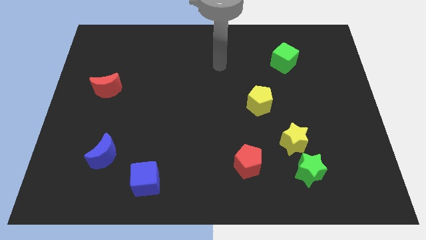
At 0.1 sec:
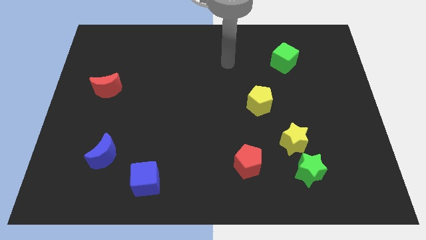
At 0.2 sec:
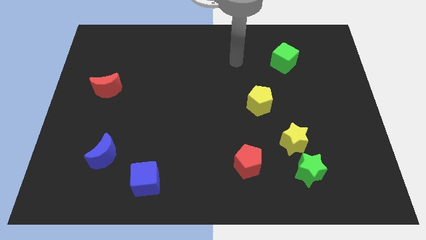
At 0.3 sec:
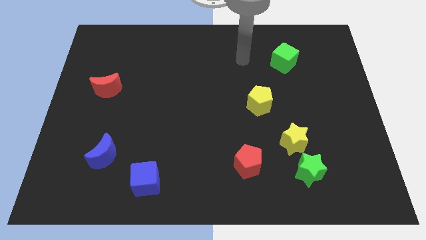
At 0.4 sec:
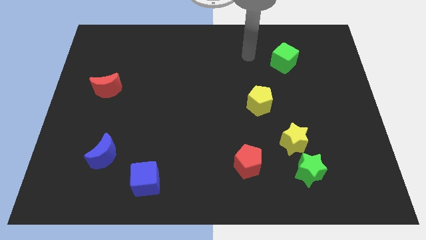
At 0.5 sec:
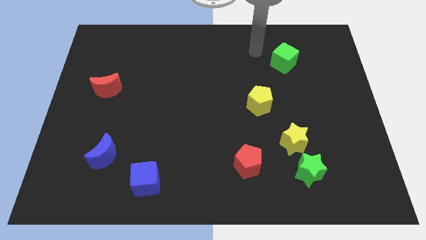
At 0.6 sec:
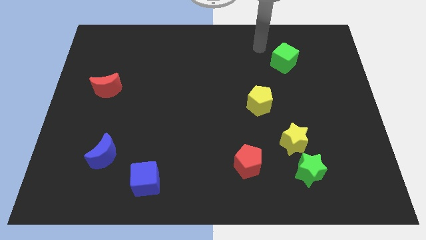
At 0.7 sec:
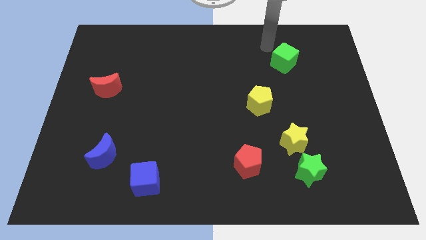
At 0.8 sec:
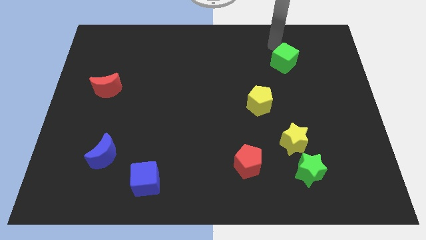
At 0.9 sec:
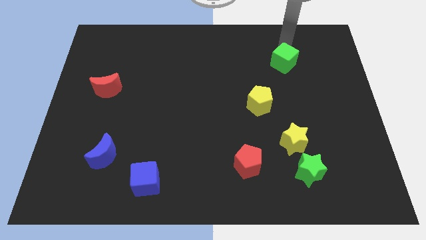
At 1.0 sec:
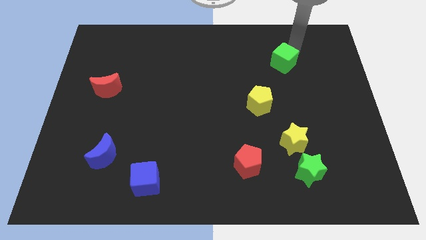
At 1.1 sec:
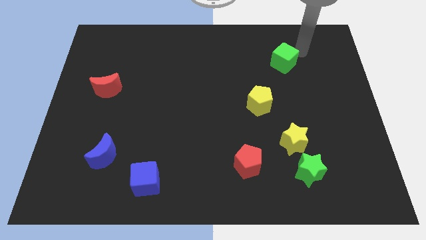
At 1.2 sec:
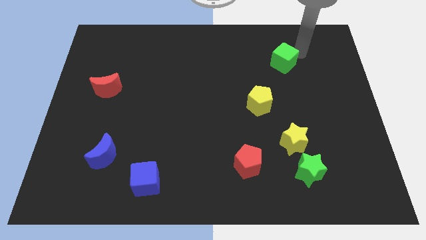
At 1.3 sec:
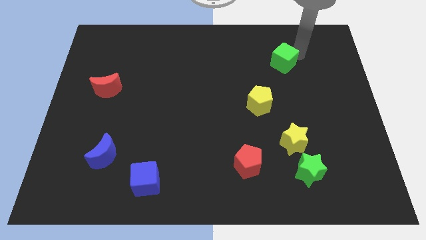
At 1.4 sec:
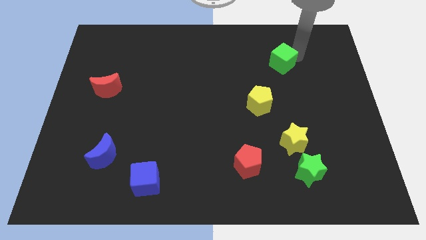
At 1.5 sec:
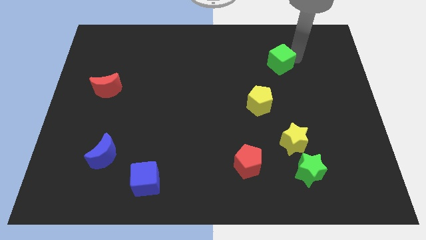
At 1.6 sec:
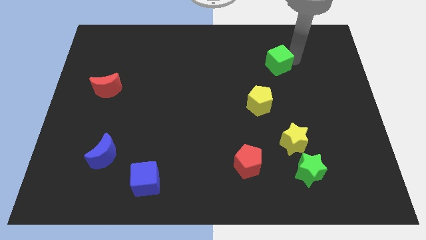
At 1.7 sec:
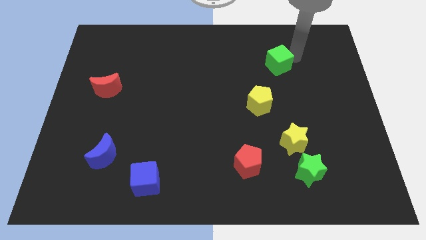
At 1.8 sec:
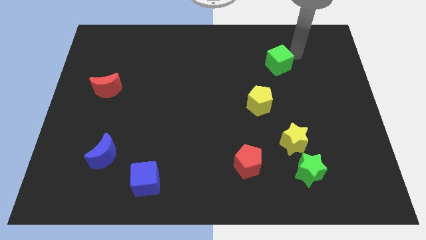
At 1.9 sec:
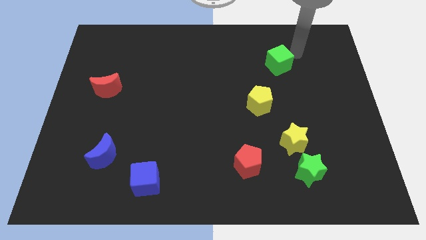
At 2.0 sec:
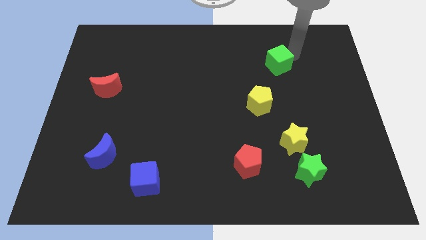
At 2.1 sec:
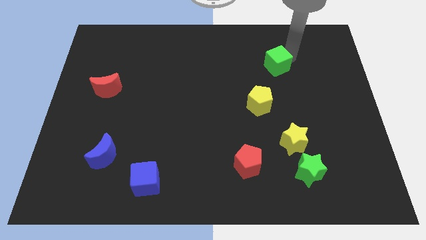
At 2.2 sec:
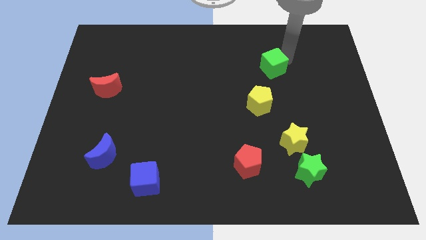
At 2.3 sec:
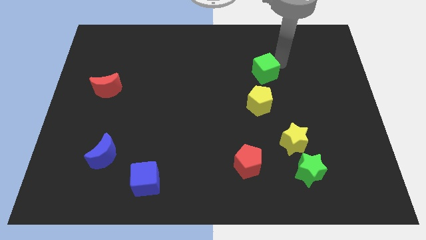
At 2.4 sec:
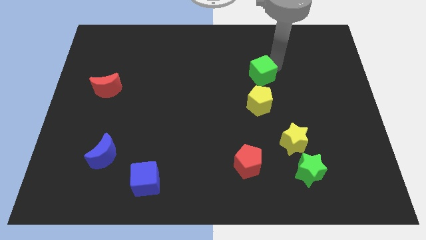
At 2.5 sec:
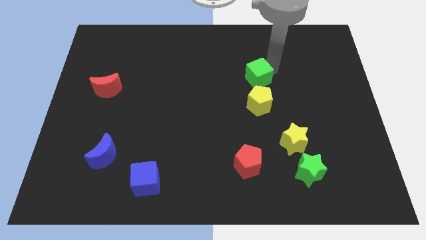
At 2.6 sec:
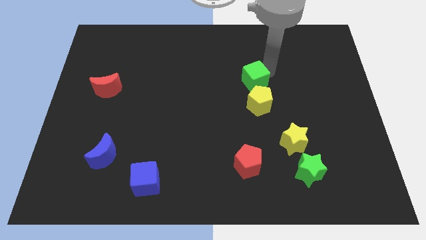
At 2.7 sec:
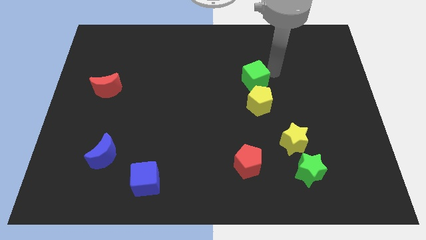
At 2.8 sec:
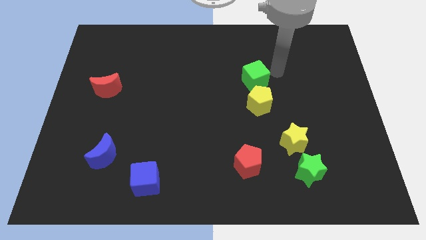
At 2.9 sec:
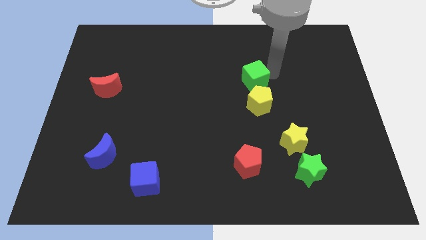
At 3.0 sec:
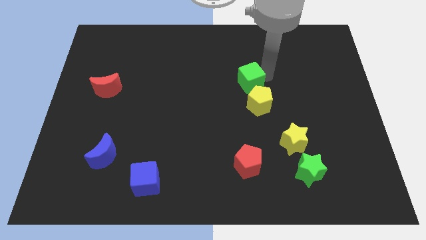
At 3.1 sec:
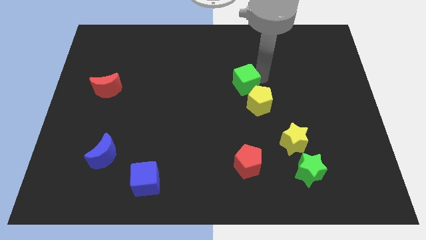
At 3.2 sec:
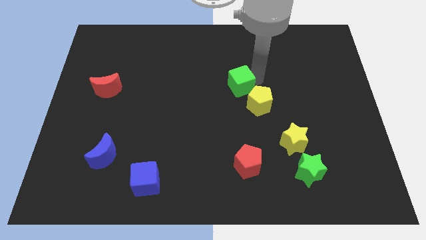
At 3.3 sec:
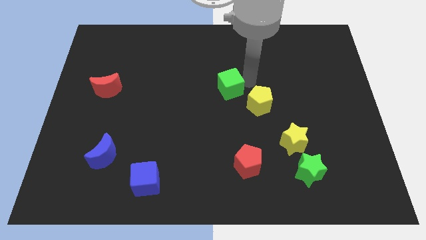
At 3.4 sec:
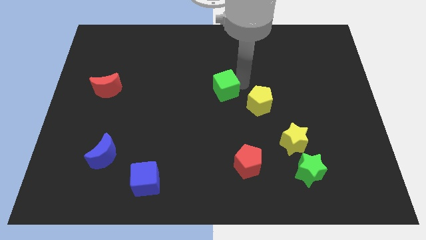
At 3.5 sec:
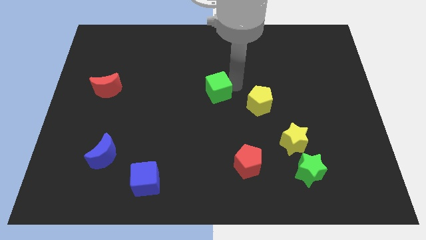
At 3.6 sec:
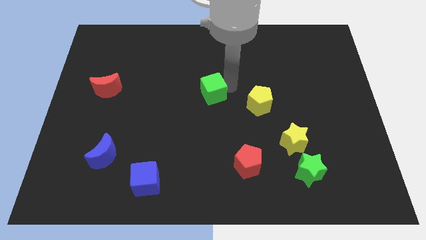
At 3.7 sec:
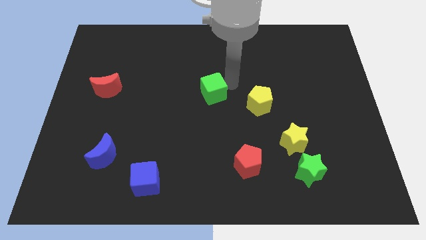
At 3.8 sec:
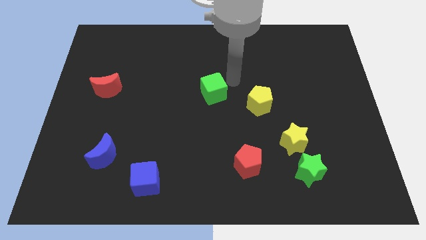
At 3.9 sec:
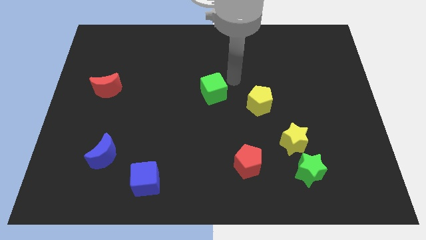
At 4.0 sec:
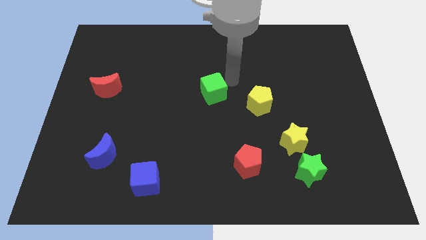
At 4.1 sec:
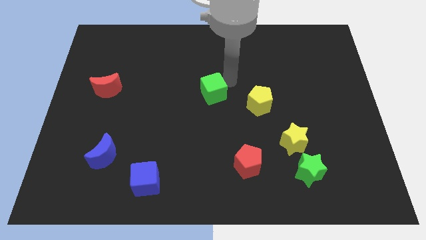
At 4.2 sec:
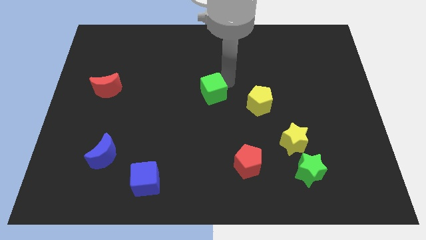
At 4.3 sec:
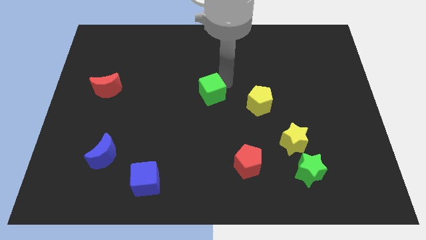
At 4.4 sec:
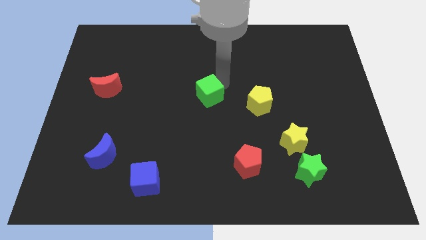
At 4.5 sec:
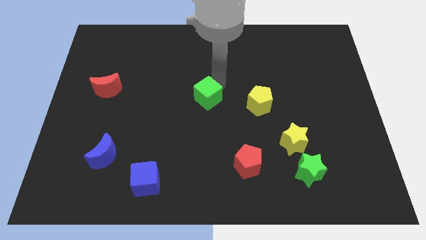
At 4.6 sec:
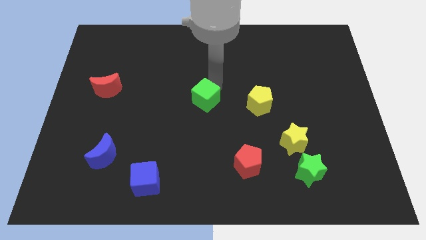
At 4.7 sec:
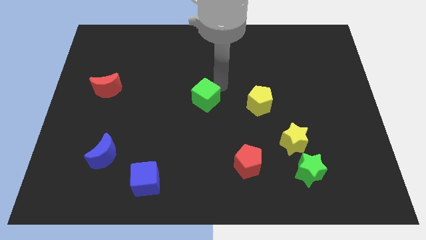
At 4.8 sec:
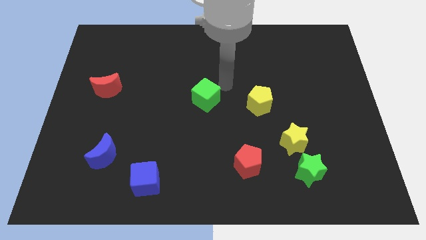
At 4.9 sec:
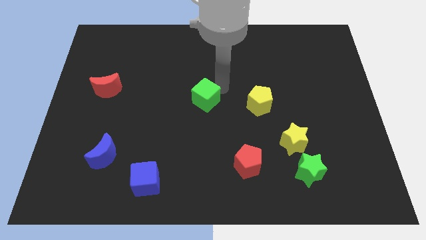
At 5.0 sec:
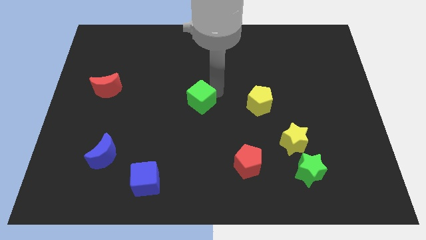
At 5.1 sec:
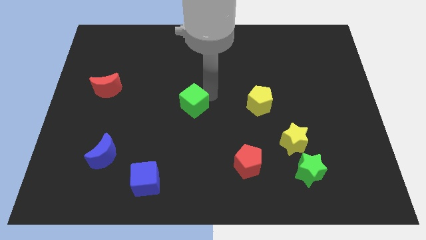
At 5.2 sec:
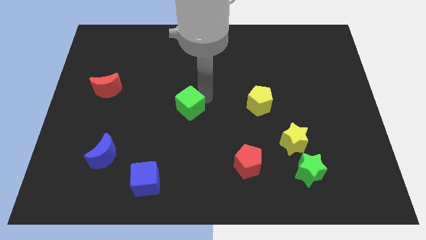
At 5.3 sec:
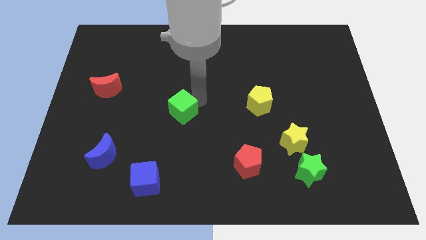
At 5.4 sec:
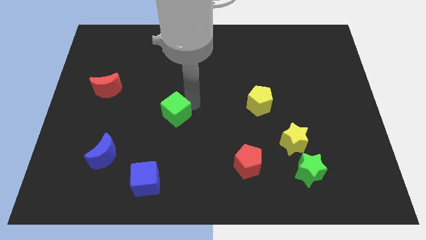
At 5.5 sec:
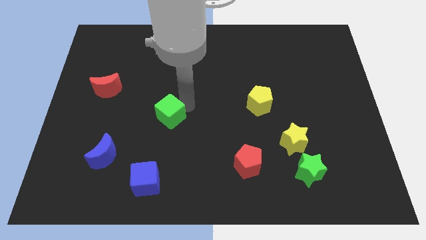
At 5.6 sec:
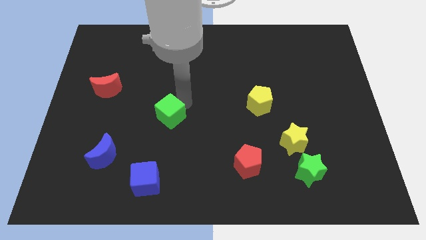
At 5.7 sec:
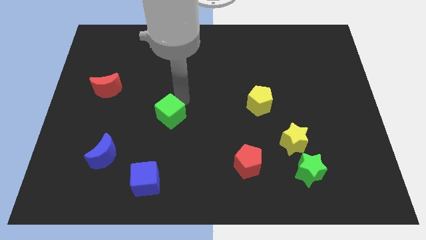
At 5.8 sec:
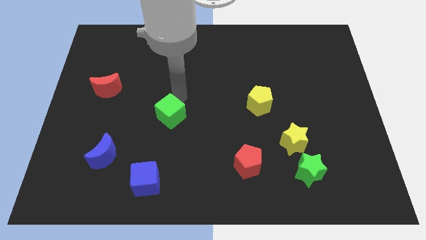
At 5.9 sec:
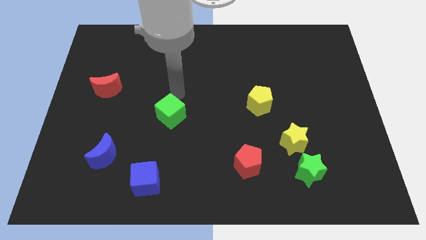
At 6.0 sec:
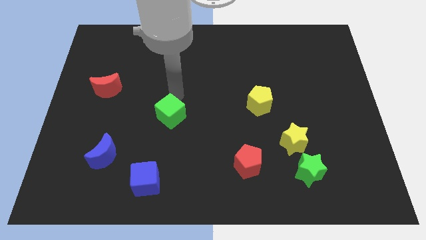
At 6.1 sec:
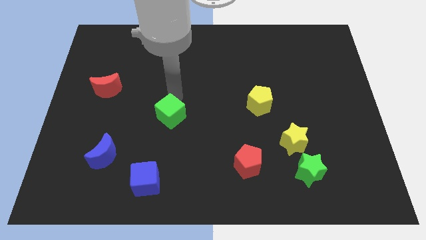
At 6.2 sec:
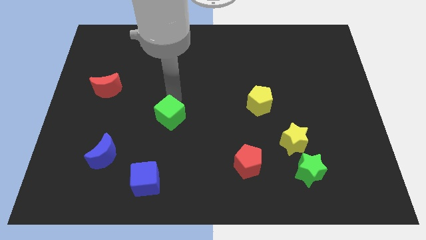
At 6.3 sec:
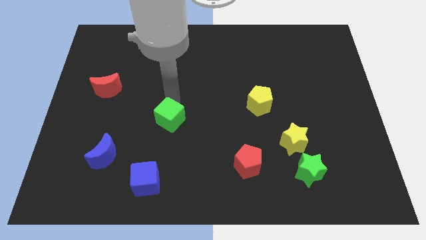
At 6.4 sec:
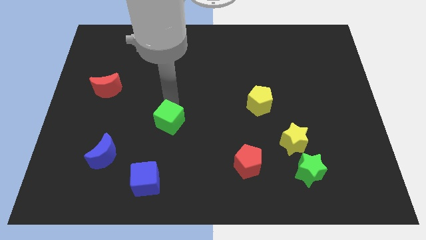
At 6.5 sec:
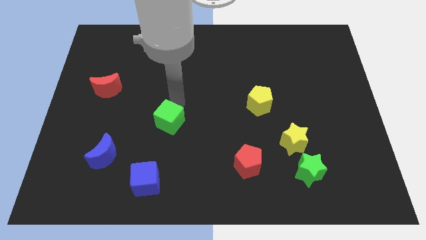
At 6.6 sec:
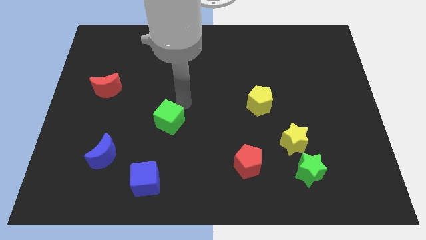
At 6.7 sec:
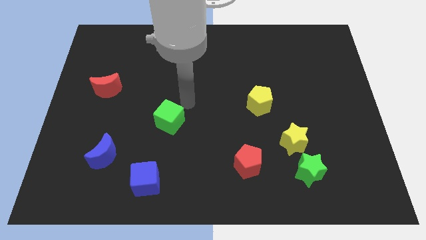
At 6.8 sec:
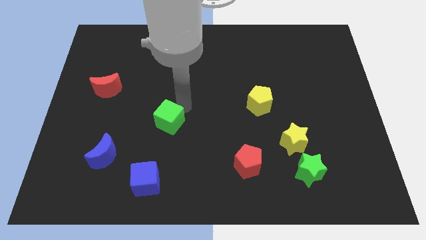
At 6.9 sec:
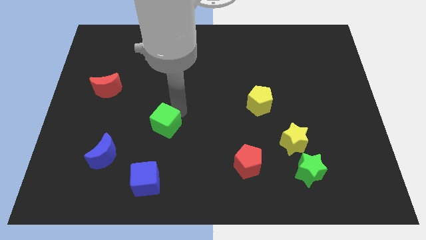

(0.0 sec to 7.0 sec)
push the green cube to the top side of the blue cube
